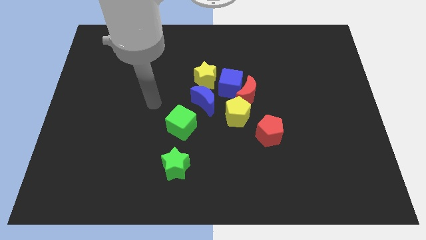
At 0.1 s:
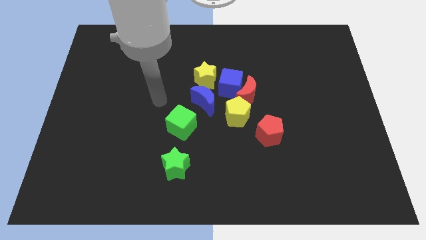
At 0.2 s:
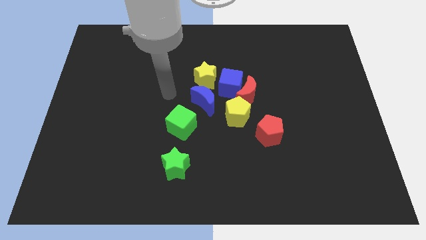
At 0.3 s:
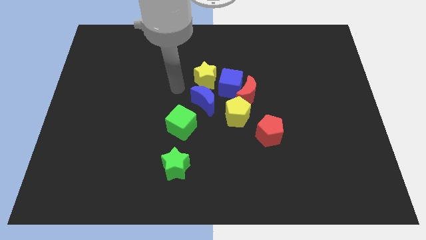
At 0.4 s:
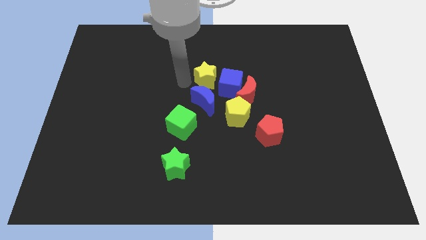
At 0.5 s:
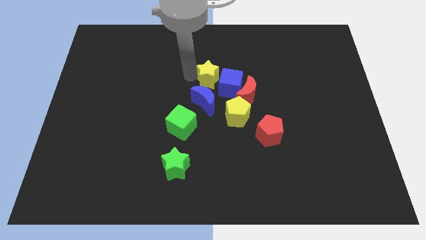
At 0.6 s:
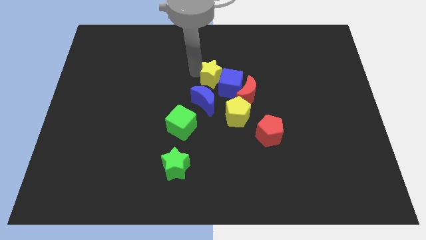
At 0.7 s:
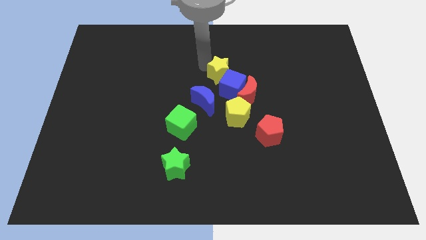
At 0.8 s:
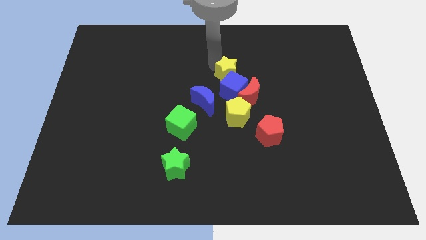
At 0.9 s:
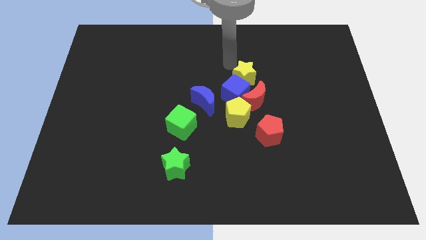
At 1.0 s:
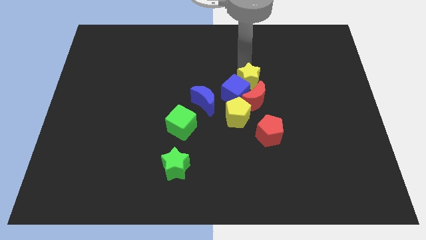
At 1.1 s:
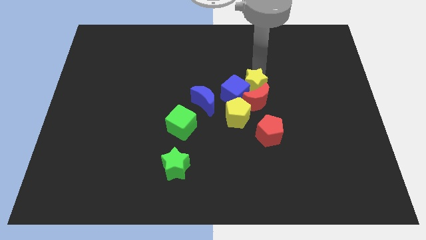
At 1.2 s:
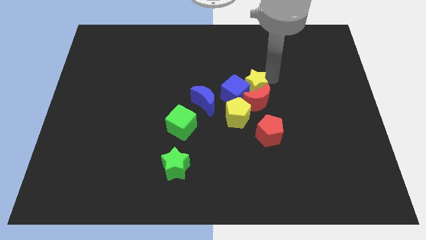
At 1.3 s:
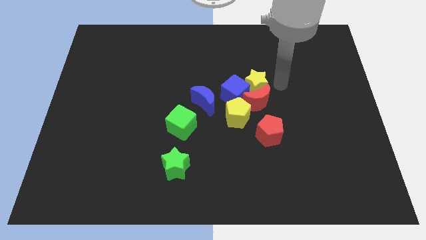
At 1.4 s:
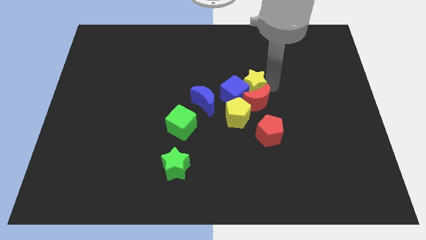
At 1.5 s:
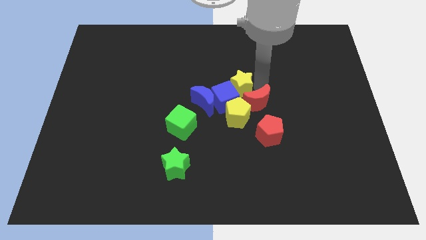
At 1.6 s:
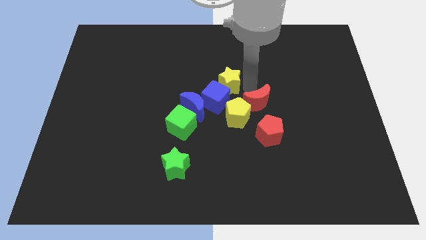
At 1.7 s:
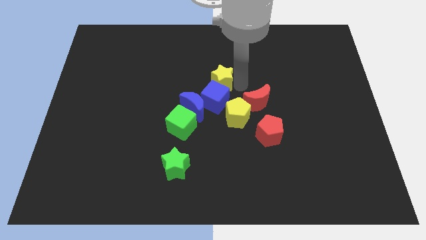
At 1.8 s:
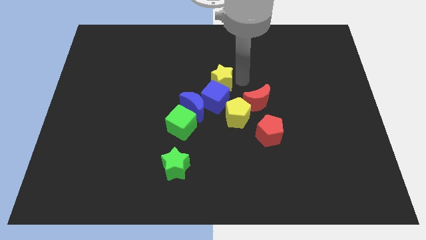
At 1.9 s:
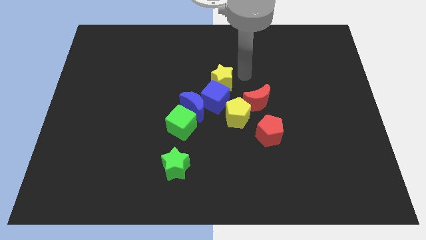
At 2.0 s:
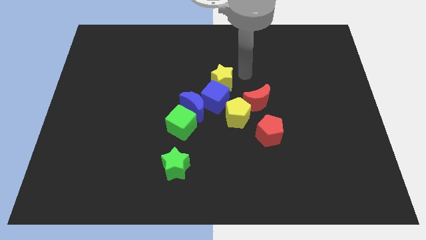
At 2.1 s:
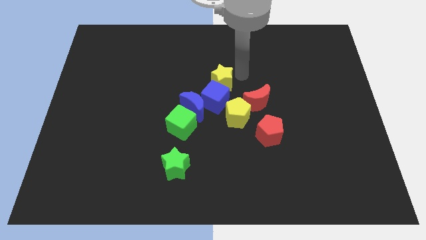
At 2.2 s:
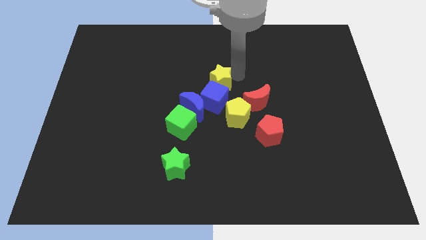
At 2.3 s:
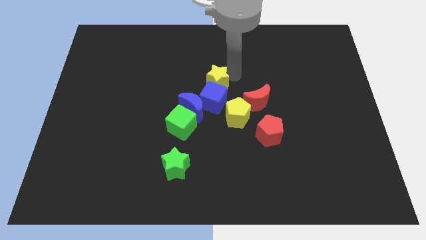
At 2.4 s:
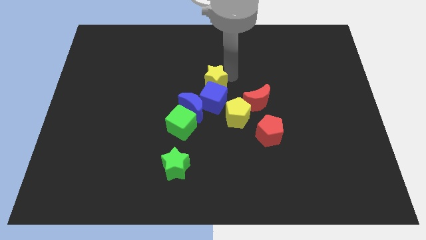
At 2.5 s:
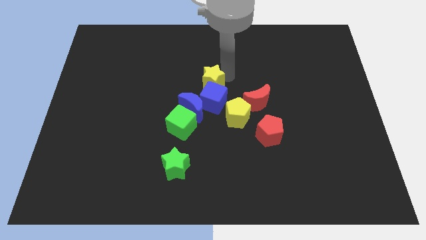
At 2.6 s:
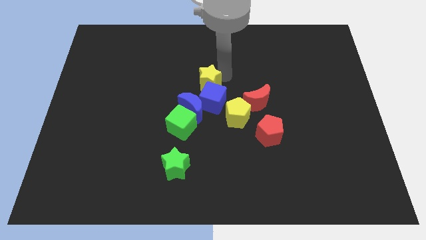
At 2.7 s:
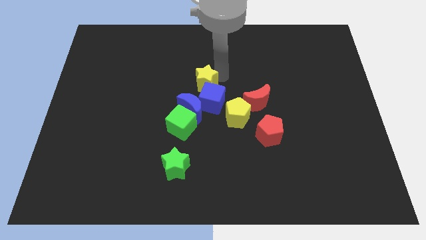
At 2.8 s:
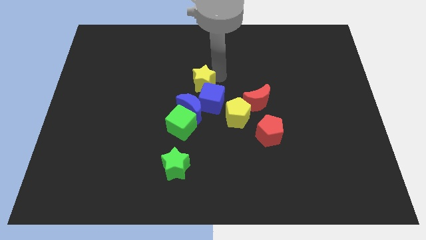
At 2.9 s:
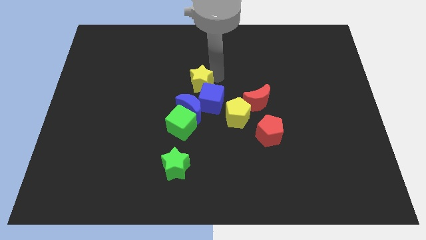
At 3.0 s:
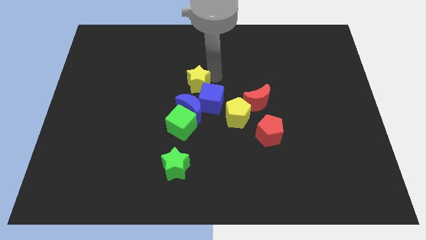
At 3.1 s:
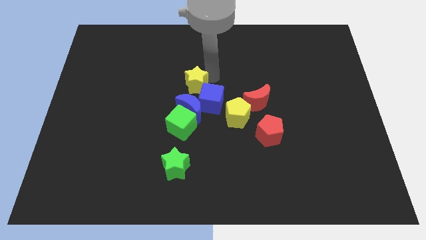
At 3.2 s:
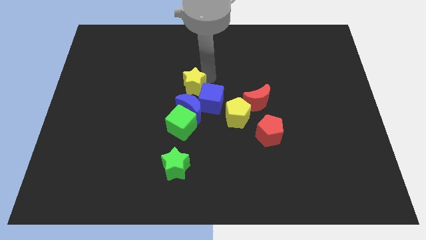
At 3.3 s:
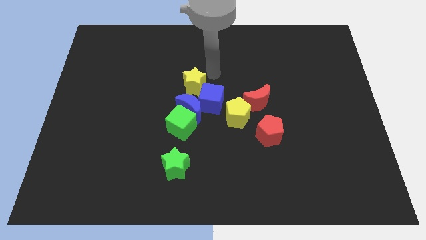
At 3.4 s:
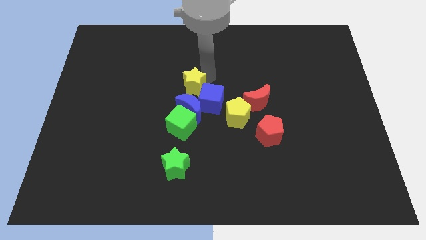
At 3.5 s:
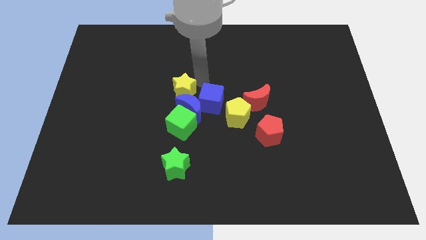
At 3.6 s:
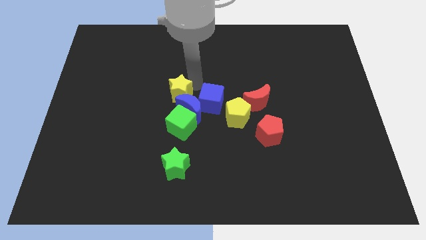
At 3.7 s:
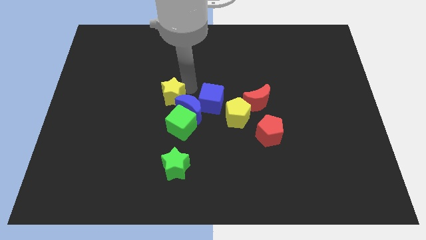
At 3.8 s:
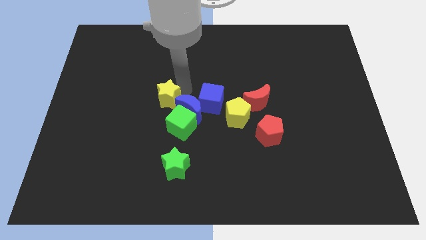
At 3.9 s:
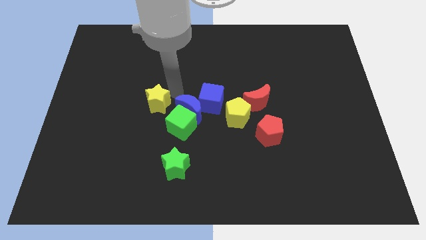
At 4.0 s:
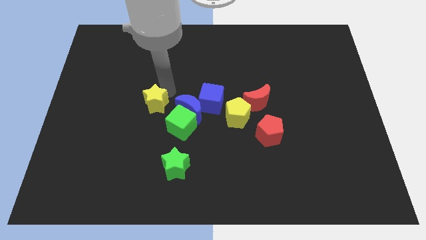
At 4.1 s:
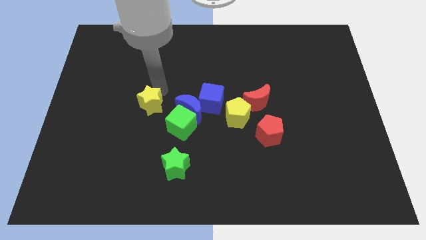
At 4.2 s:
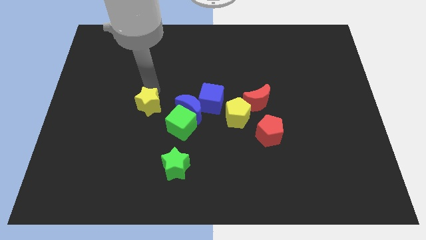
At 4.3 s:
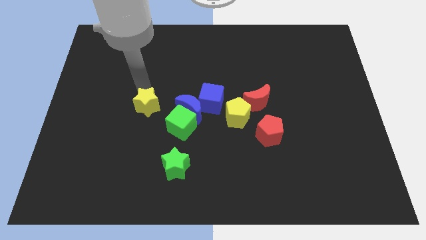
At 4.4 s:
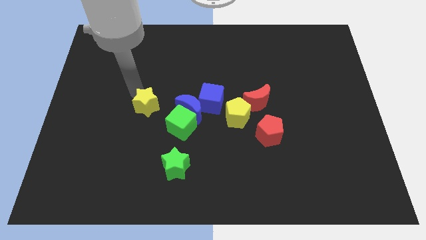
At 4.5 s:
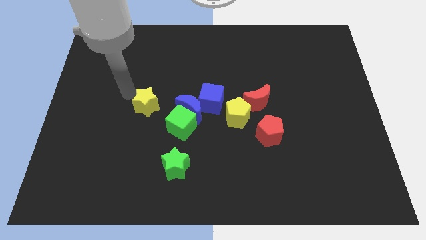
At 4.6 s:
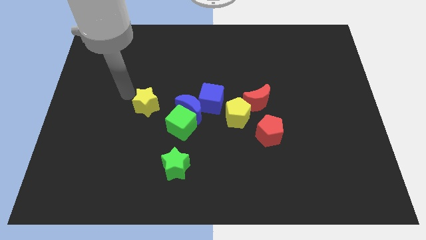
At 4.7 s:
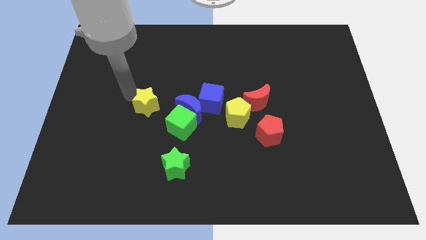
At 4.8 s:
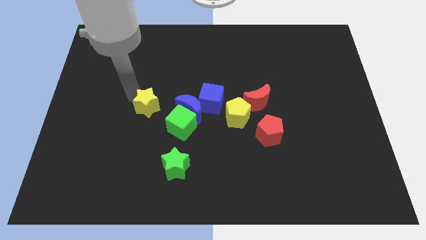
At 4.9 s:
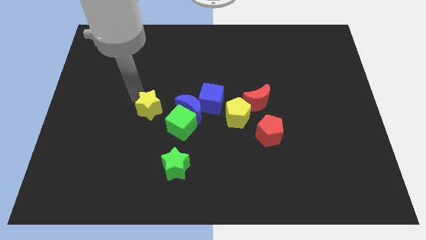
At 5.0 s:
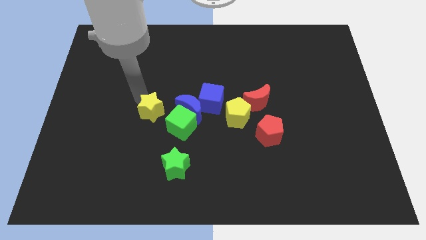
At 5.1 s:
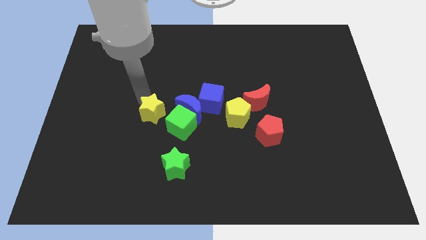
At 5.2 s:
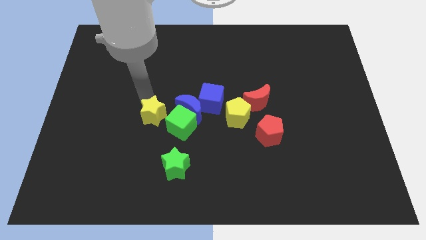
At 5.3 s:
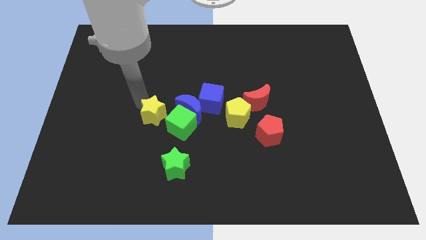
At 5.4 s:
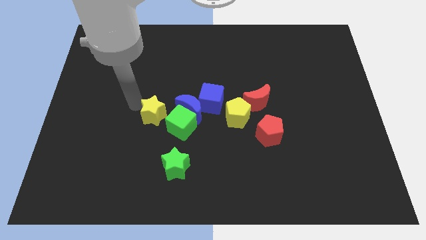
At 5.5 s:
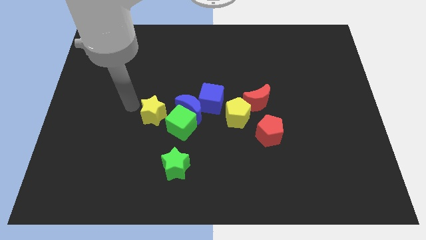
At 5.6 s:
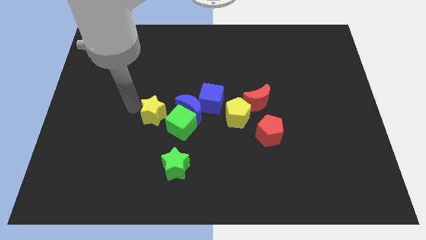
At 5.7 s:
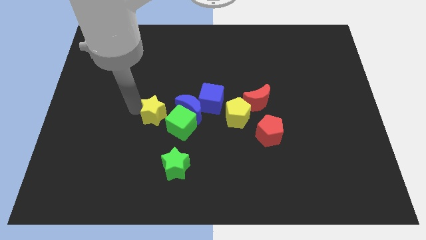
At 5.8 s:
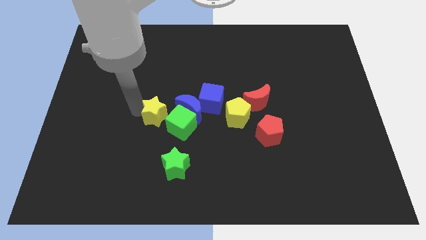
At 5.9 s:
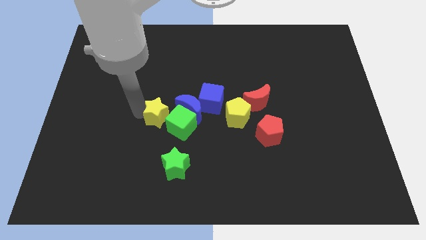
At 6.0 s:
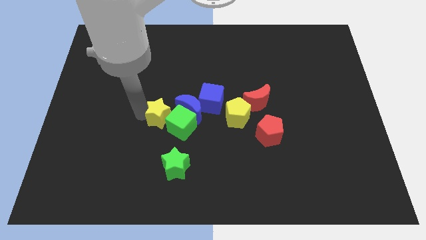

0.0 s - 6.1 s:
put the yellow star close to the green cube

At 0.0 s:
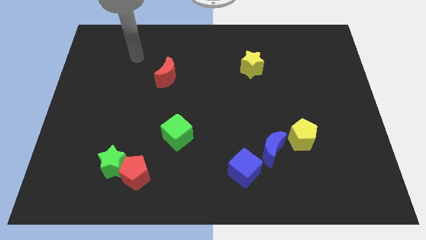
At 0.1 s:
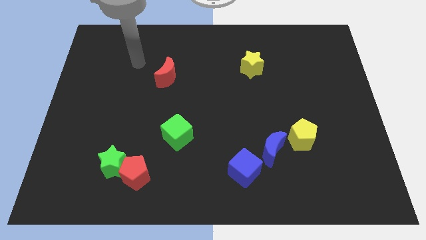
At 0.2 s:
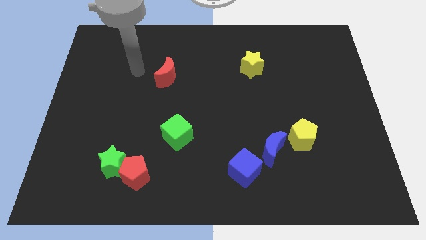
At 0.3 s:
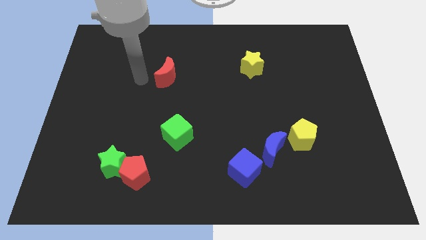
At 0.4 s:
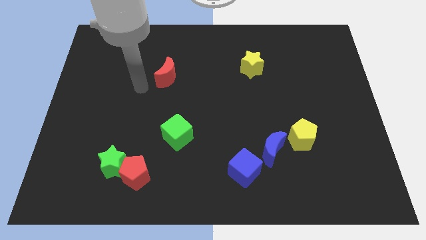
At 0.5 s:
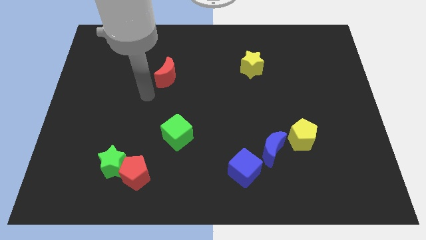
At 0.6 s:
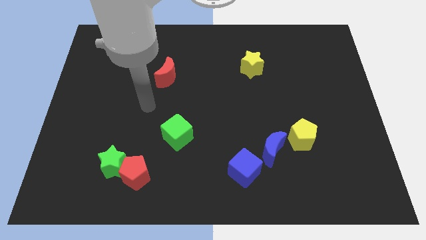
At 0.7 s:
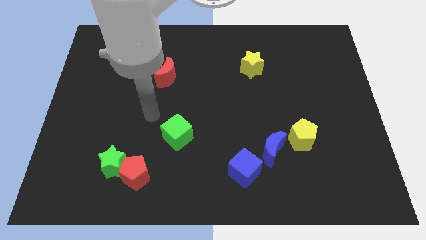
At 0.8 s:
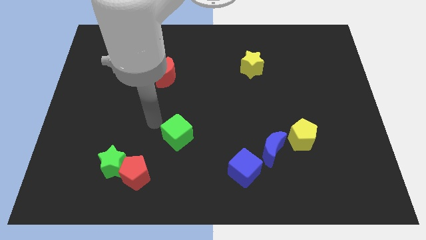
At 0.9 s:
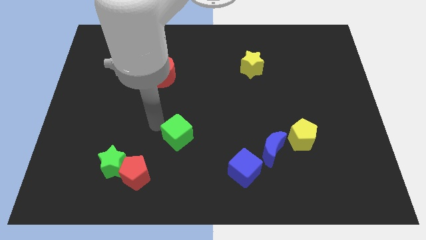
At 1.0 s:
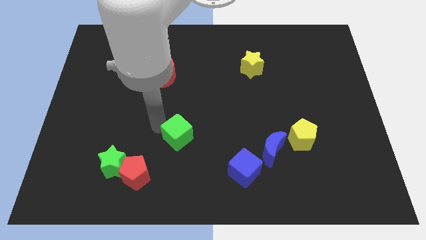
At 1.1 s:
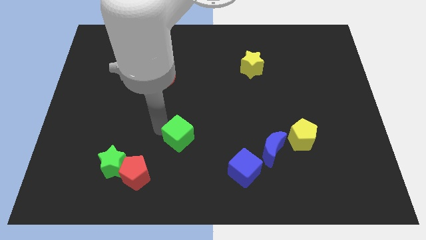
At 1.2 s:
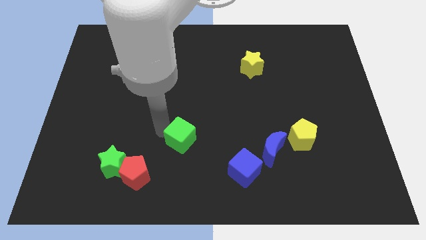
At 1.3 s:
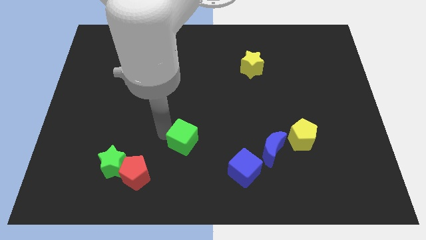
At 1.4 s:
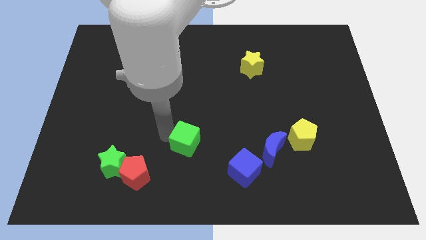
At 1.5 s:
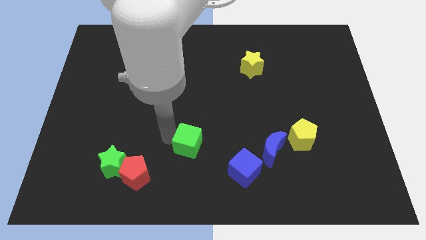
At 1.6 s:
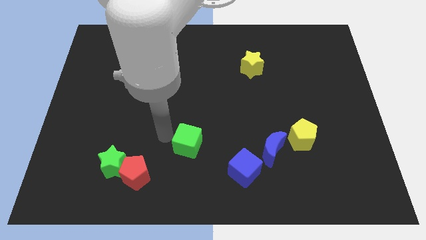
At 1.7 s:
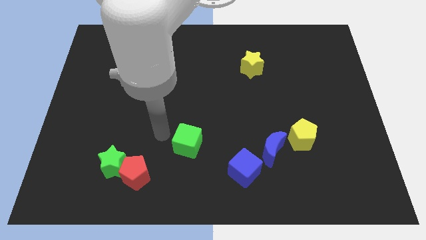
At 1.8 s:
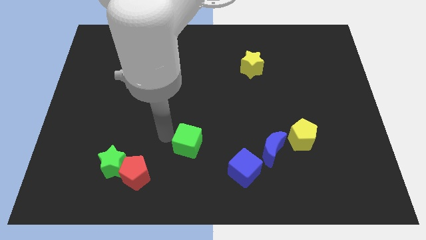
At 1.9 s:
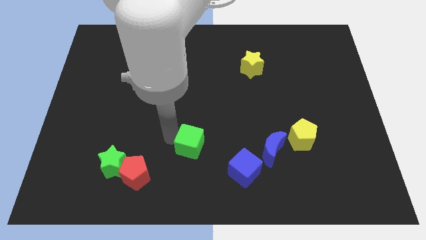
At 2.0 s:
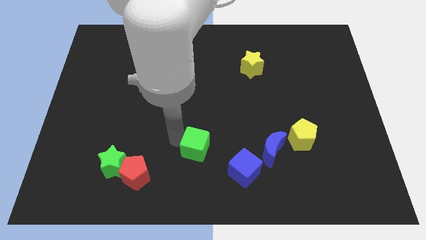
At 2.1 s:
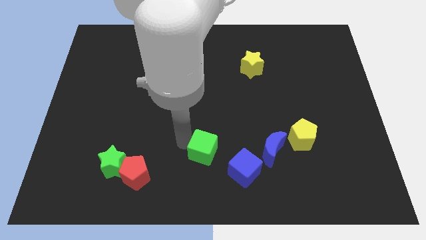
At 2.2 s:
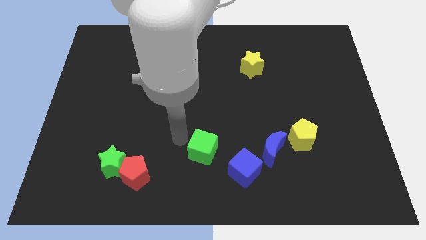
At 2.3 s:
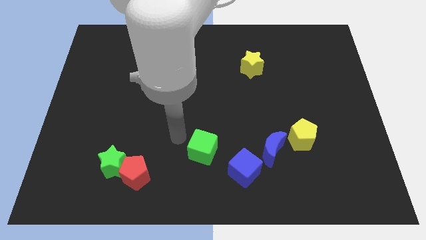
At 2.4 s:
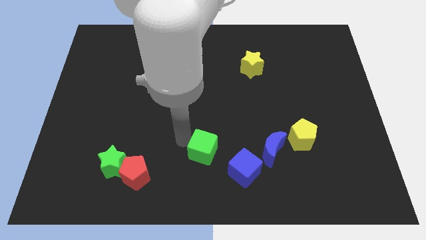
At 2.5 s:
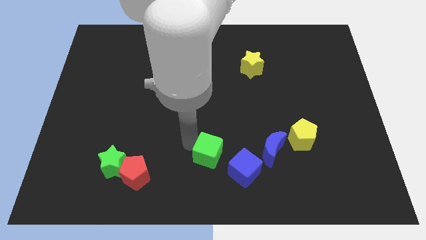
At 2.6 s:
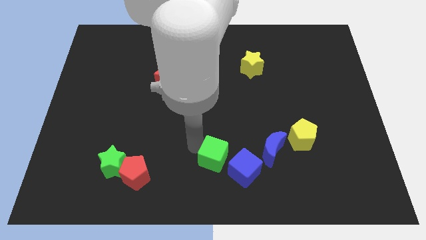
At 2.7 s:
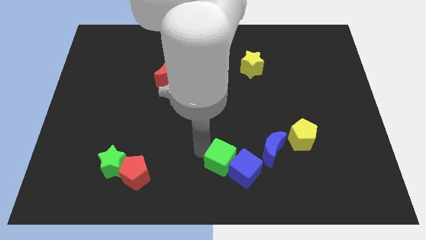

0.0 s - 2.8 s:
push the green cube to the blue cube
